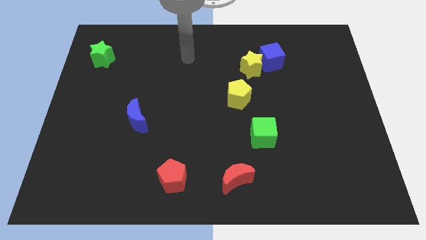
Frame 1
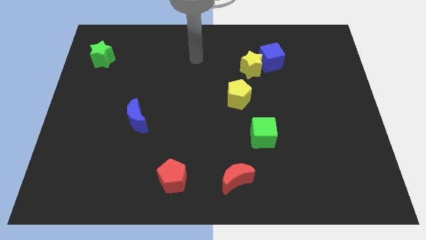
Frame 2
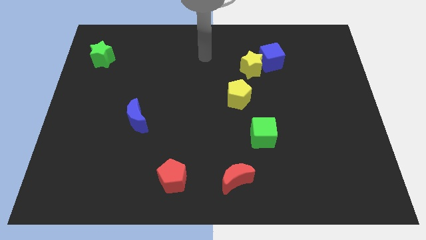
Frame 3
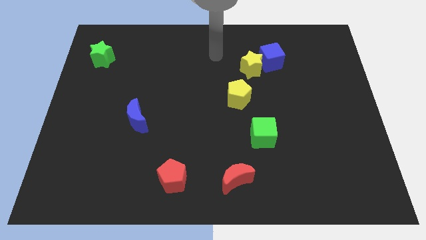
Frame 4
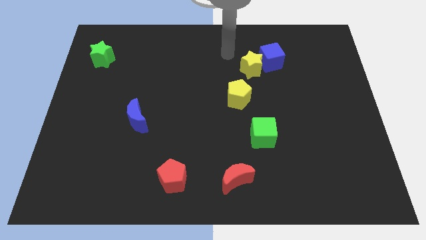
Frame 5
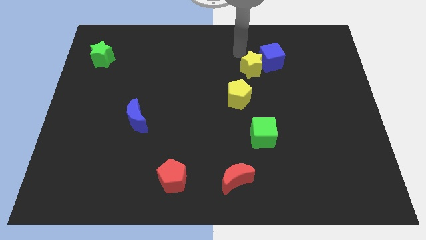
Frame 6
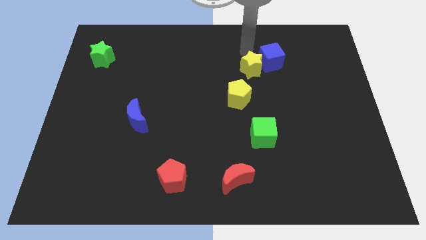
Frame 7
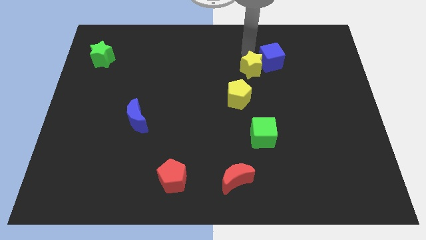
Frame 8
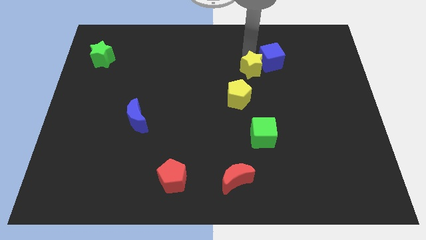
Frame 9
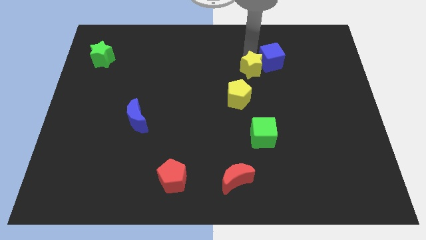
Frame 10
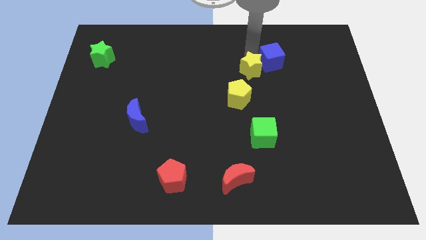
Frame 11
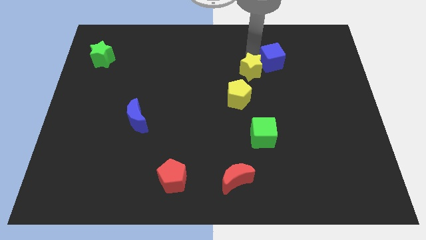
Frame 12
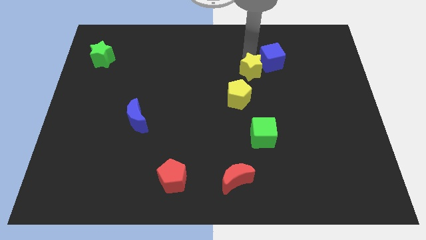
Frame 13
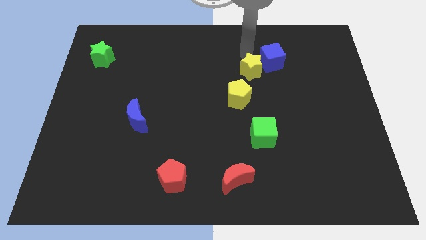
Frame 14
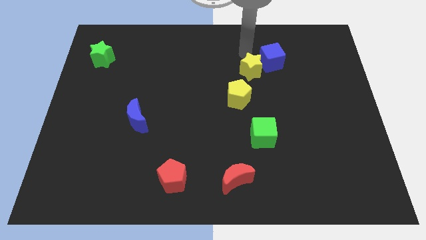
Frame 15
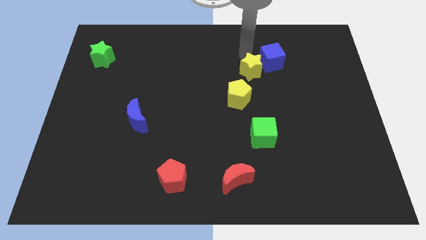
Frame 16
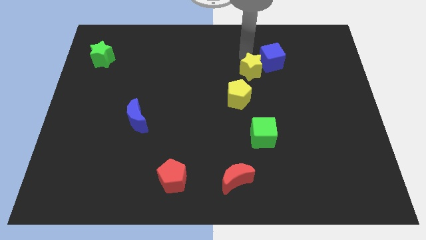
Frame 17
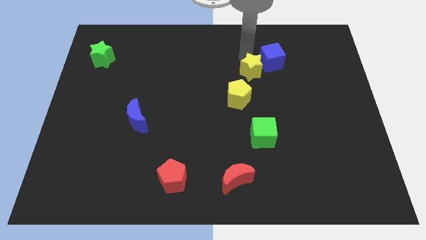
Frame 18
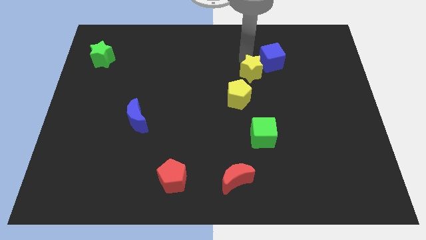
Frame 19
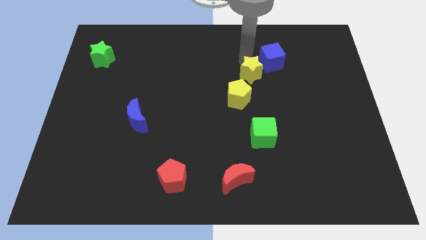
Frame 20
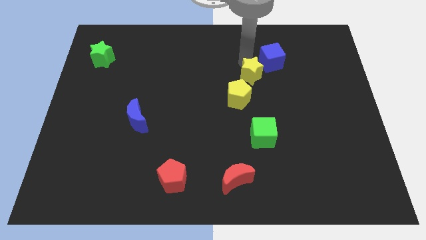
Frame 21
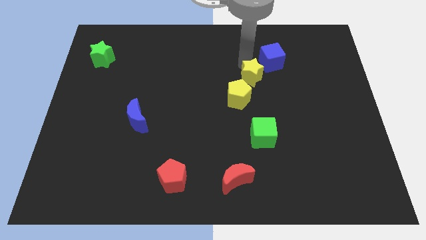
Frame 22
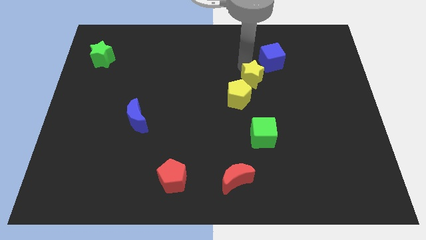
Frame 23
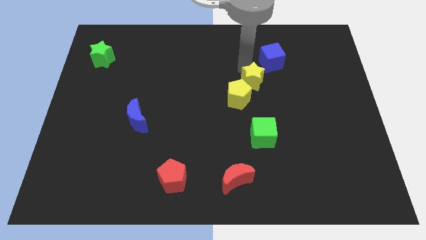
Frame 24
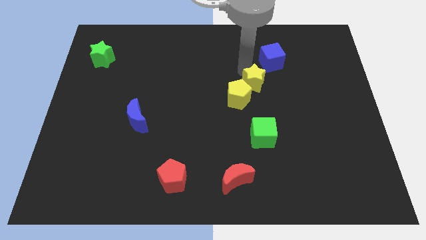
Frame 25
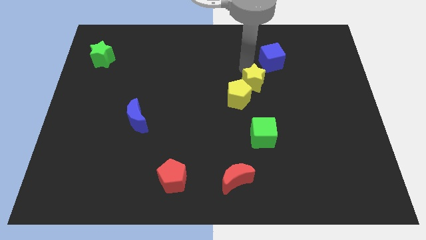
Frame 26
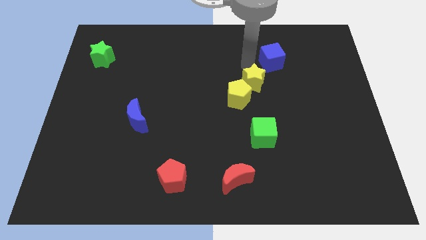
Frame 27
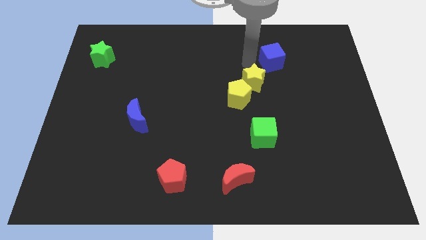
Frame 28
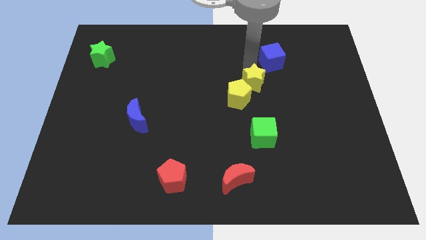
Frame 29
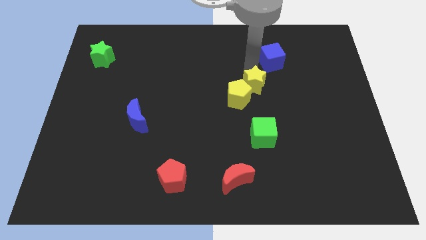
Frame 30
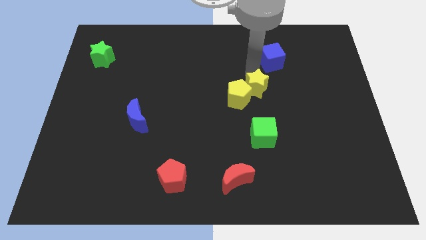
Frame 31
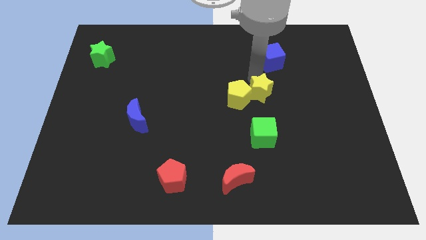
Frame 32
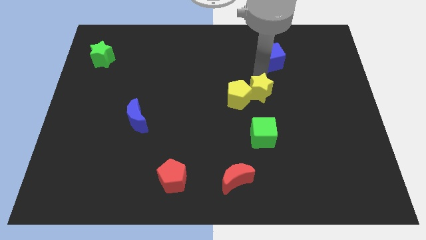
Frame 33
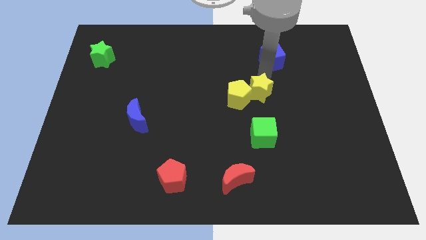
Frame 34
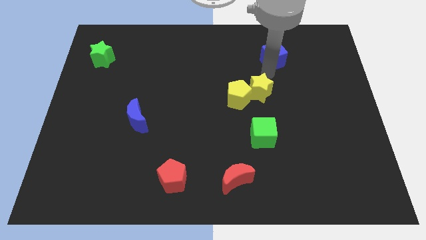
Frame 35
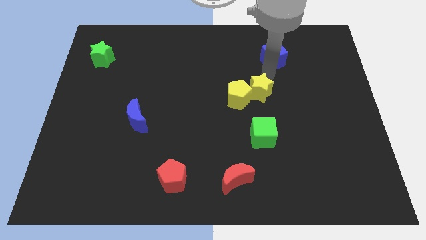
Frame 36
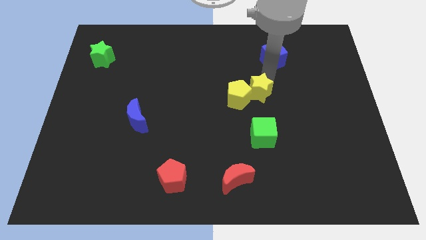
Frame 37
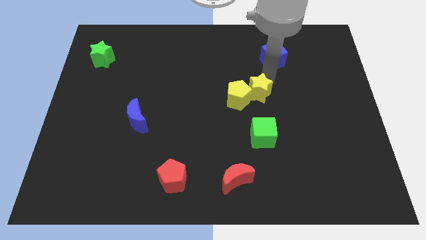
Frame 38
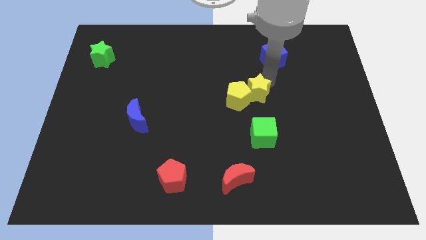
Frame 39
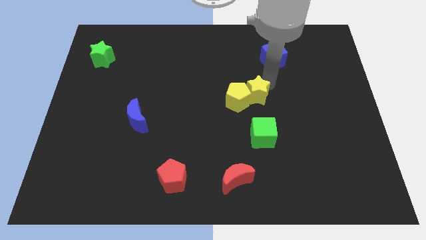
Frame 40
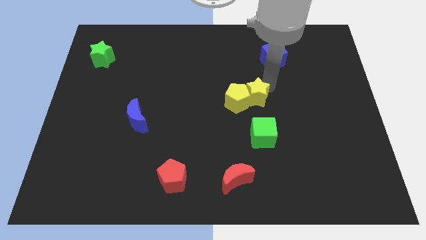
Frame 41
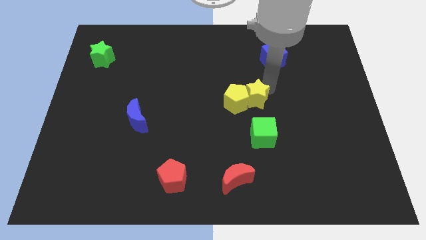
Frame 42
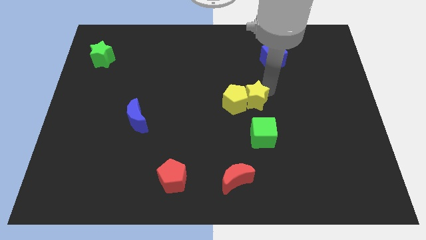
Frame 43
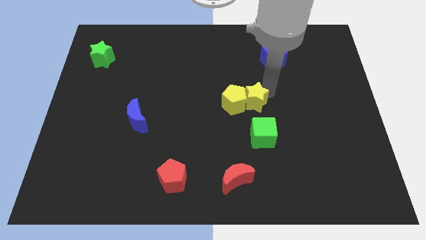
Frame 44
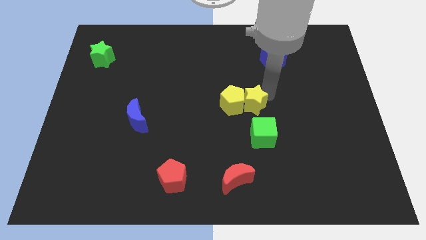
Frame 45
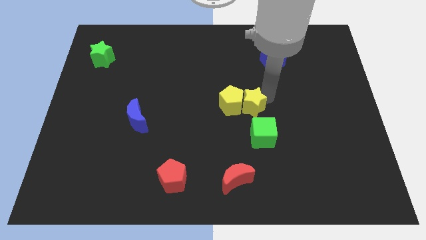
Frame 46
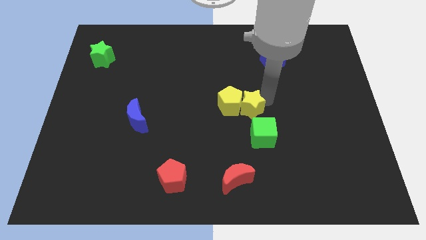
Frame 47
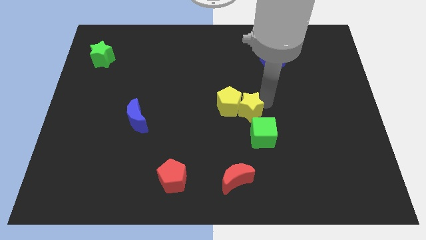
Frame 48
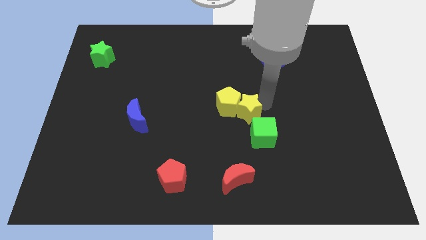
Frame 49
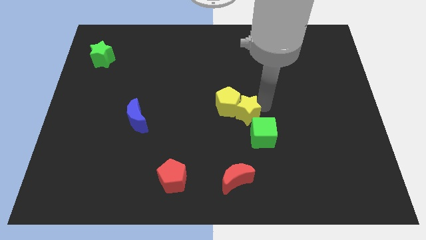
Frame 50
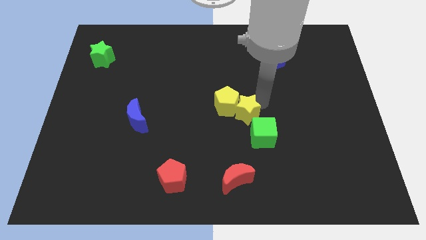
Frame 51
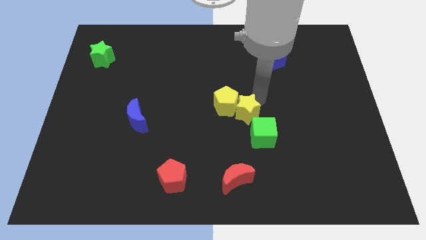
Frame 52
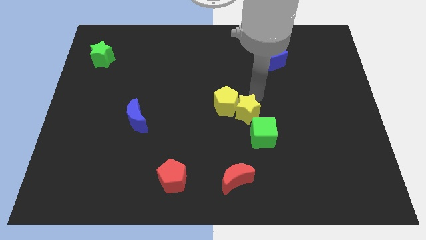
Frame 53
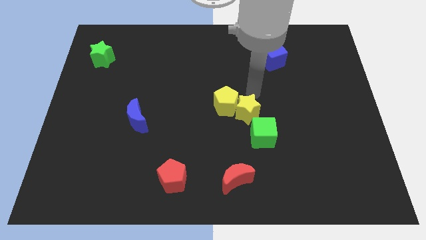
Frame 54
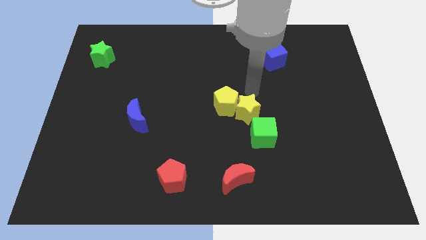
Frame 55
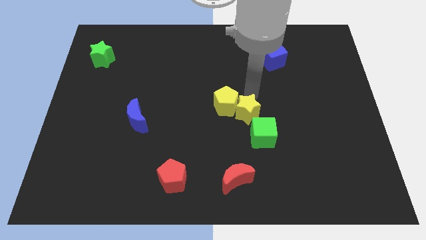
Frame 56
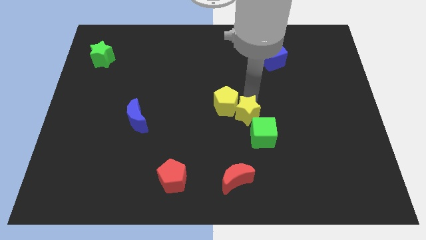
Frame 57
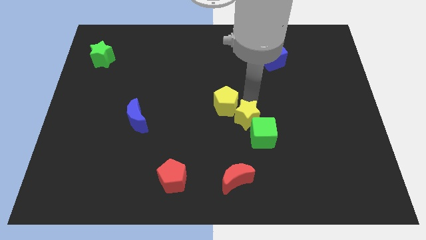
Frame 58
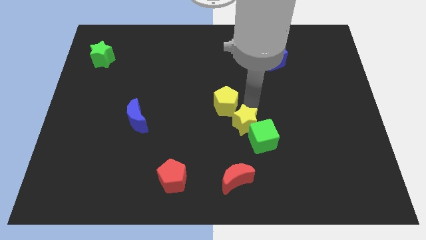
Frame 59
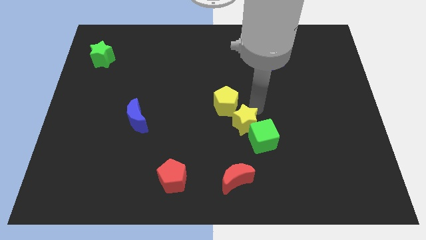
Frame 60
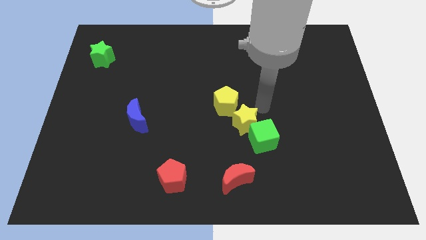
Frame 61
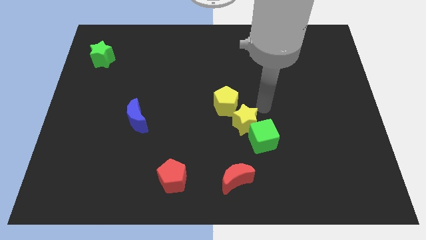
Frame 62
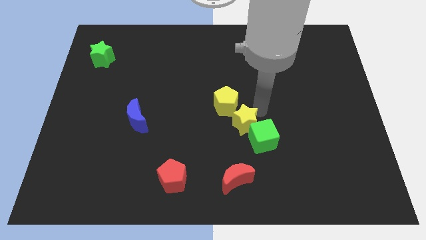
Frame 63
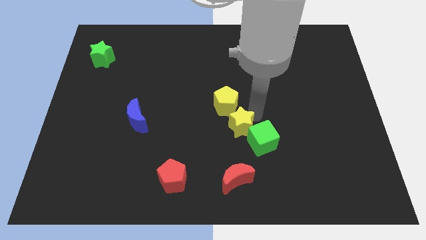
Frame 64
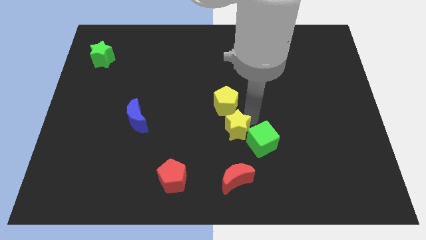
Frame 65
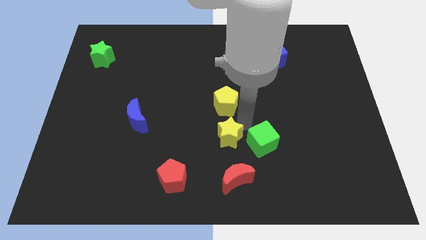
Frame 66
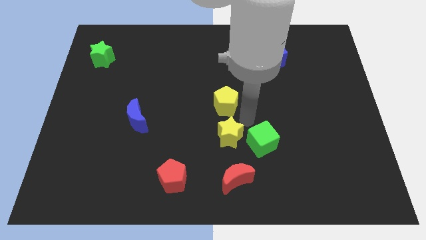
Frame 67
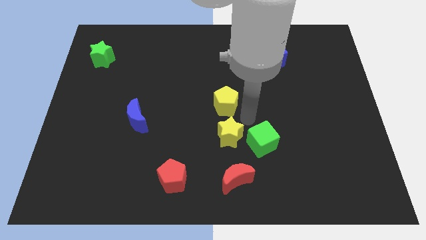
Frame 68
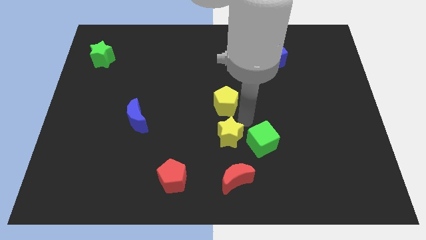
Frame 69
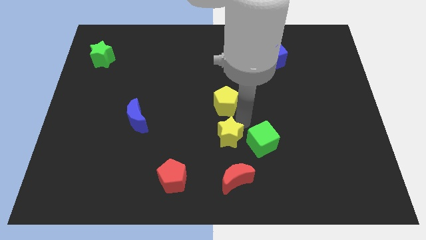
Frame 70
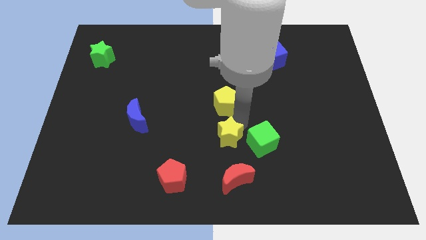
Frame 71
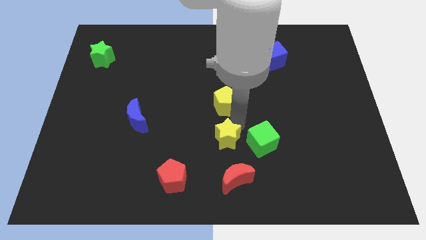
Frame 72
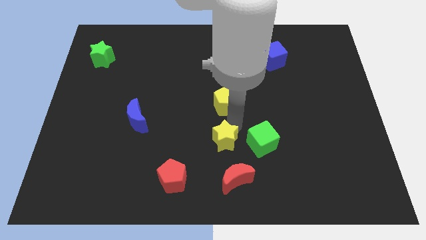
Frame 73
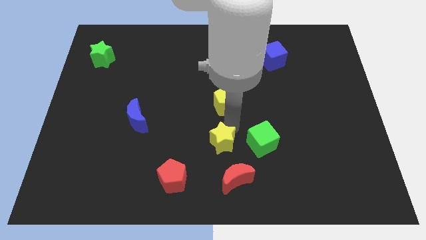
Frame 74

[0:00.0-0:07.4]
move the yellow star to the top left of the red moon

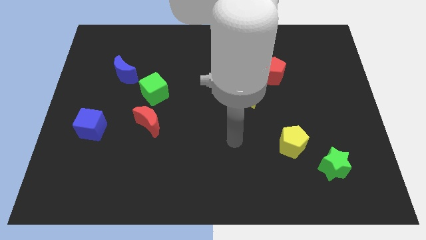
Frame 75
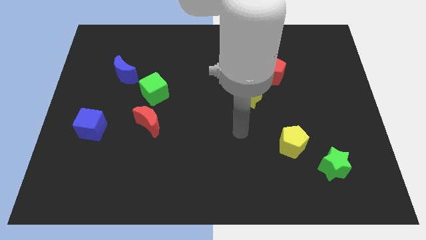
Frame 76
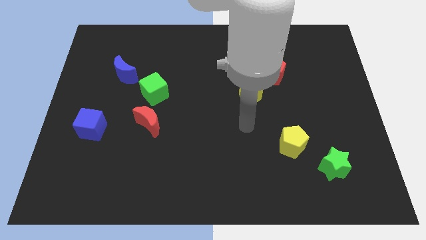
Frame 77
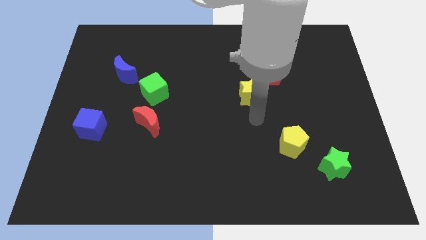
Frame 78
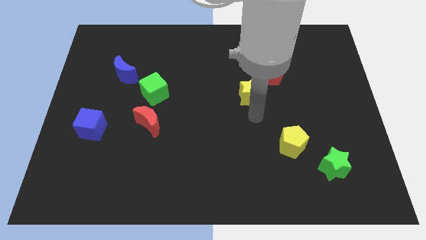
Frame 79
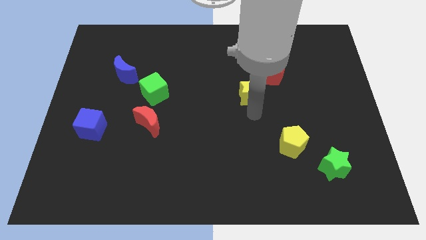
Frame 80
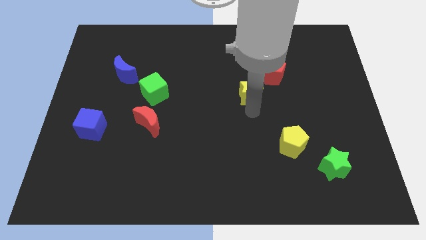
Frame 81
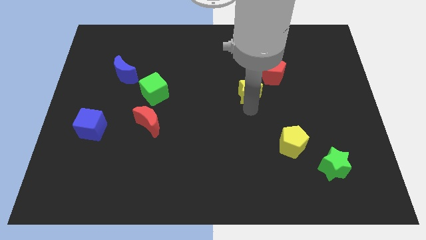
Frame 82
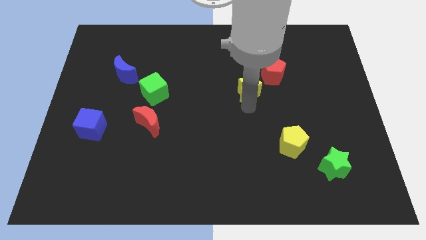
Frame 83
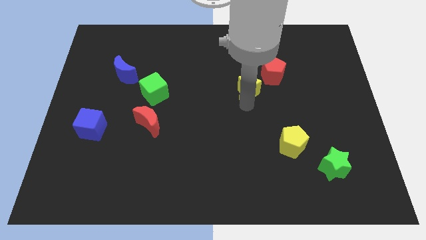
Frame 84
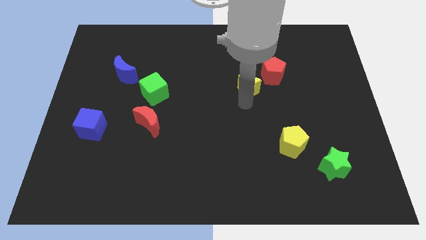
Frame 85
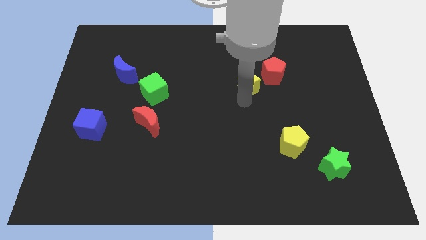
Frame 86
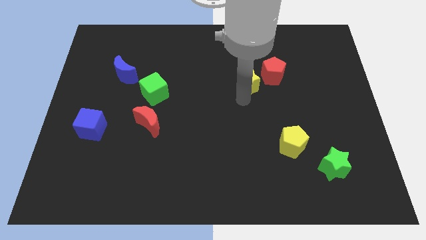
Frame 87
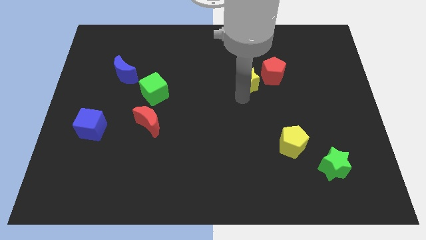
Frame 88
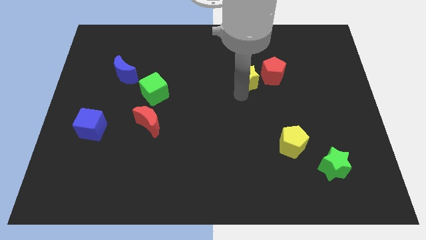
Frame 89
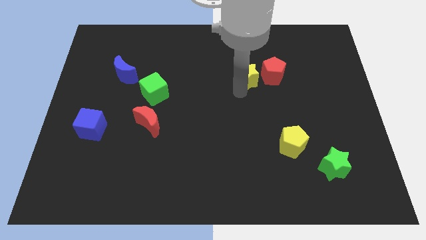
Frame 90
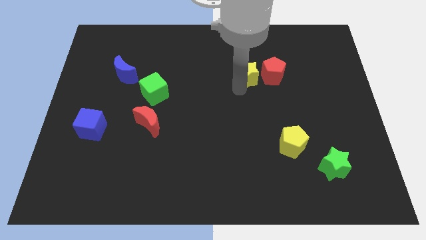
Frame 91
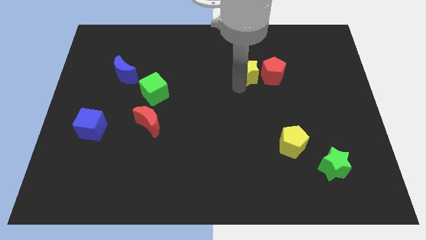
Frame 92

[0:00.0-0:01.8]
slide the yellow star to the top left side of the red pentagon
